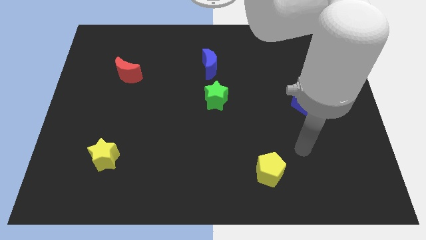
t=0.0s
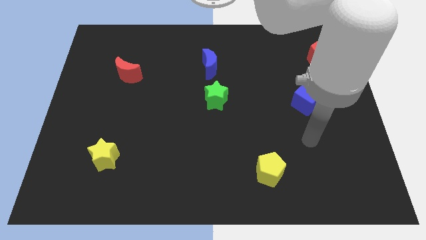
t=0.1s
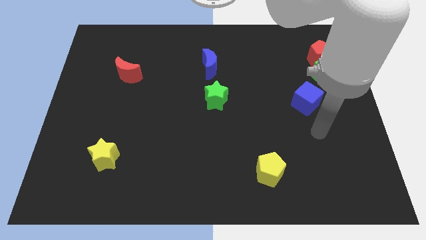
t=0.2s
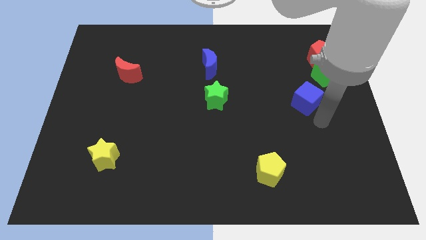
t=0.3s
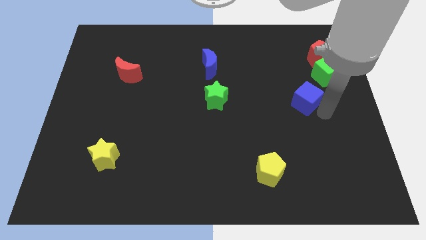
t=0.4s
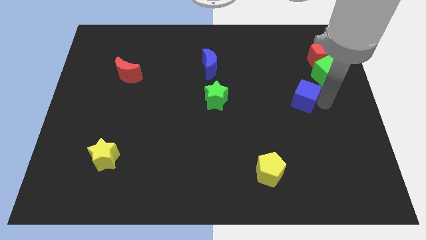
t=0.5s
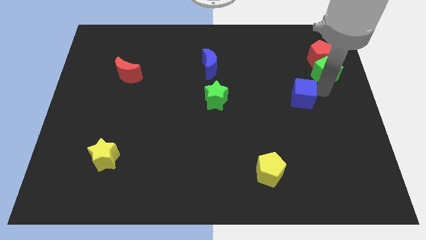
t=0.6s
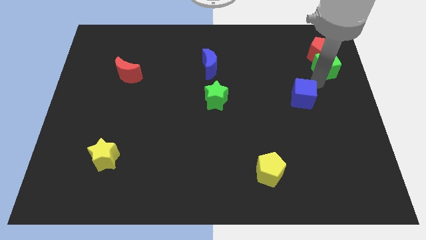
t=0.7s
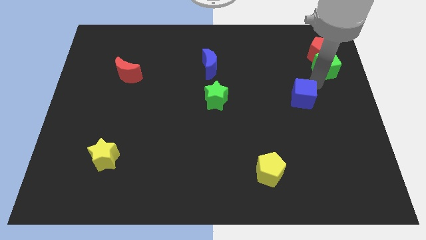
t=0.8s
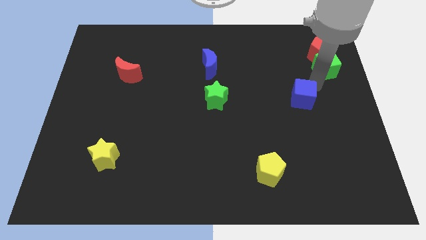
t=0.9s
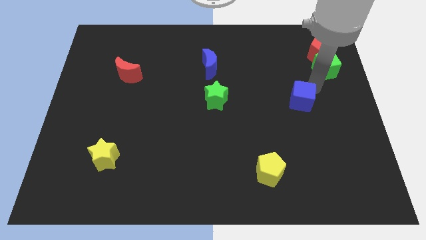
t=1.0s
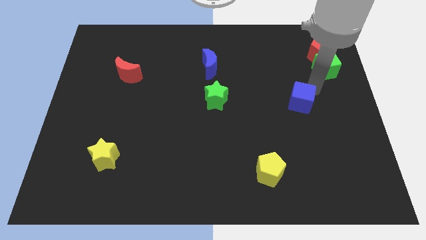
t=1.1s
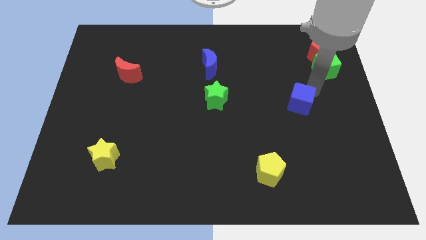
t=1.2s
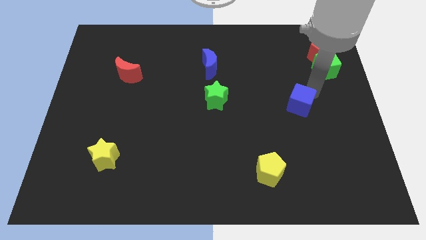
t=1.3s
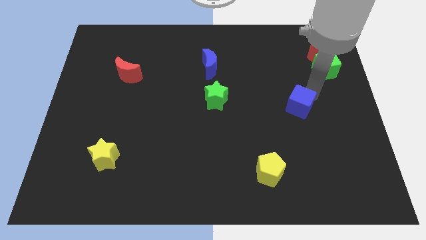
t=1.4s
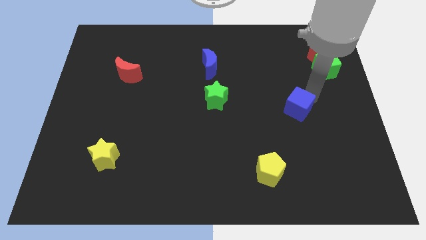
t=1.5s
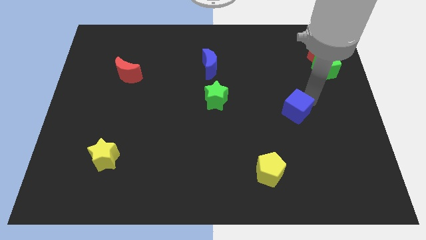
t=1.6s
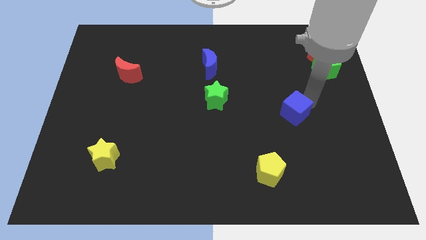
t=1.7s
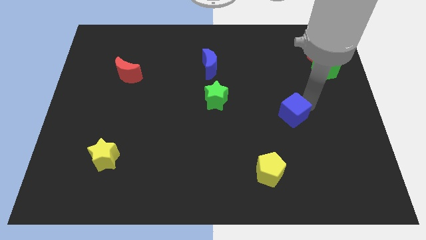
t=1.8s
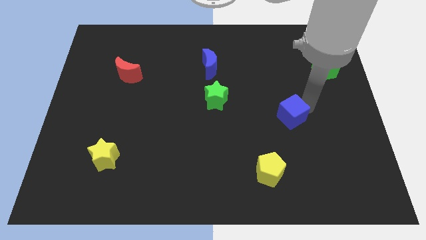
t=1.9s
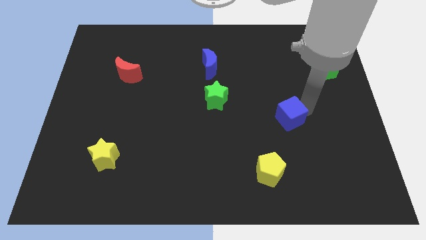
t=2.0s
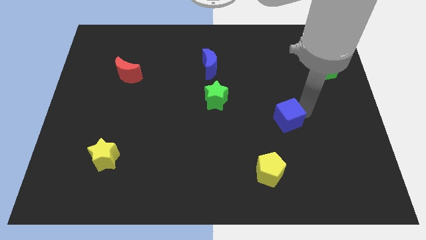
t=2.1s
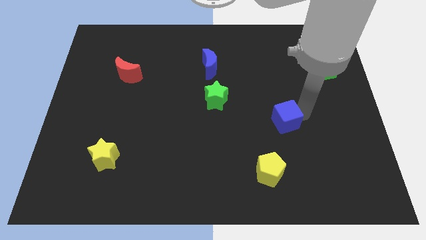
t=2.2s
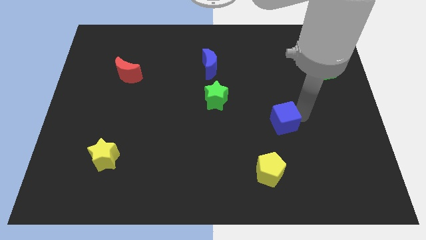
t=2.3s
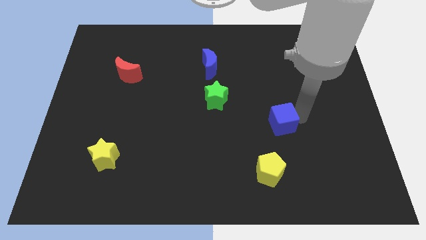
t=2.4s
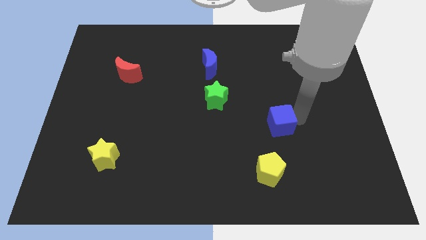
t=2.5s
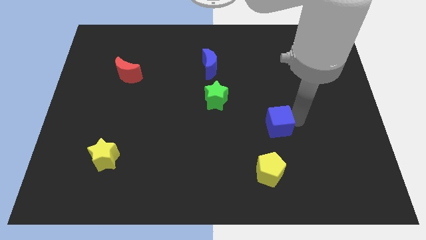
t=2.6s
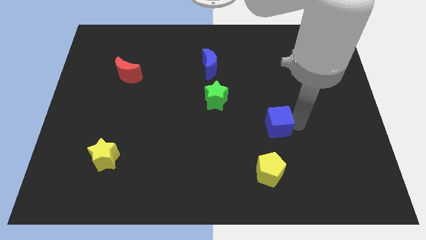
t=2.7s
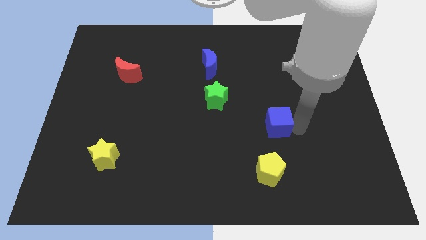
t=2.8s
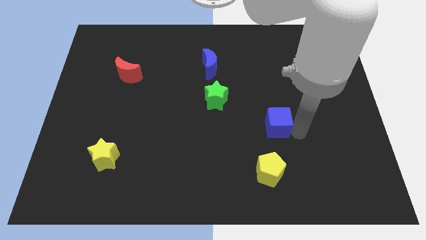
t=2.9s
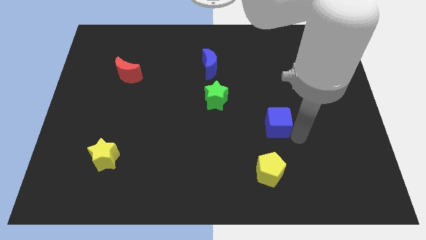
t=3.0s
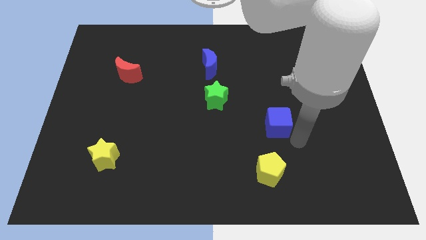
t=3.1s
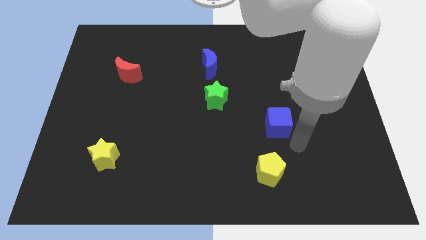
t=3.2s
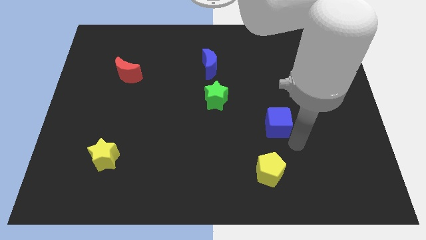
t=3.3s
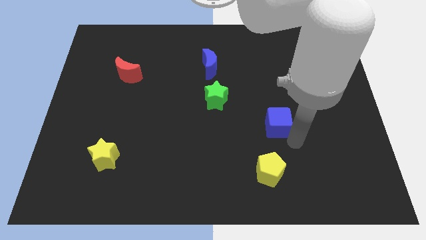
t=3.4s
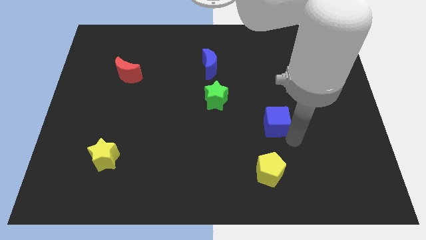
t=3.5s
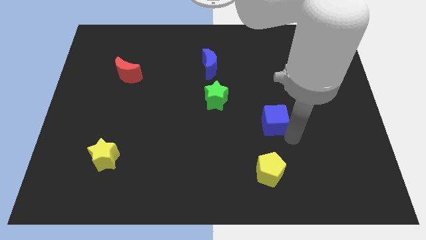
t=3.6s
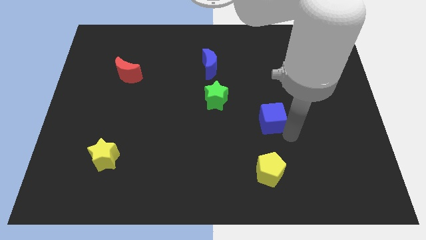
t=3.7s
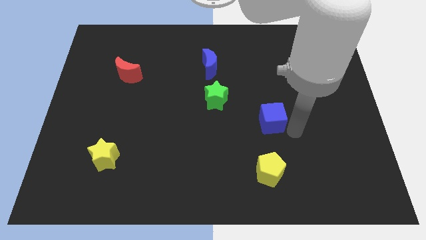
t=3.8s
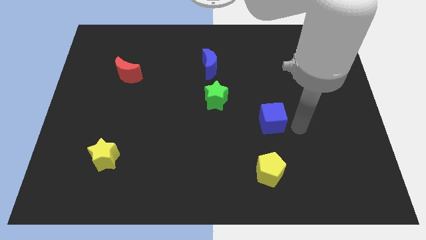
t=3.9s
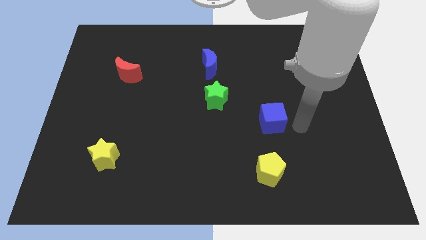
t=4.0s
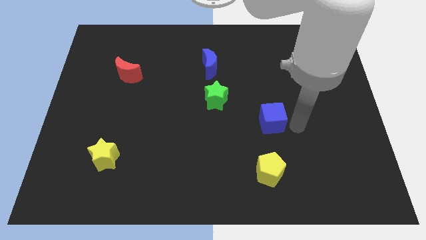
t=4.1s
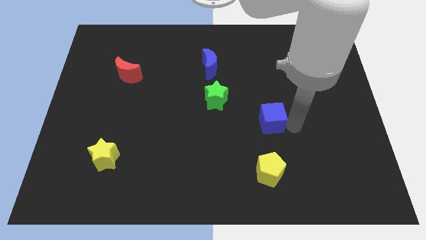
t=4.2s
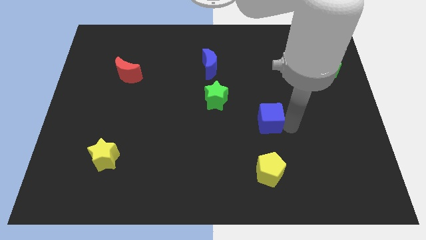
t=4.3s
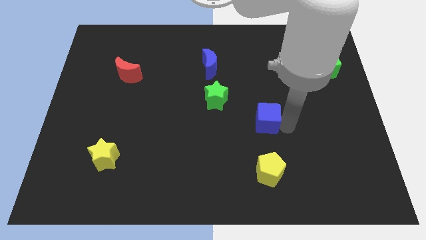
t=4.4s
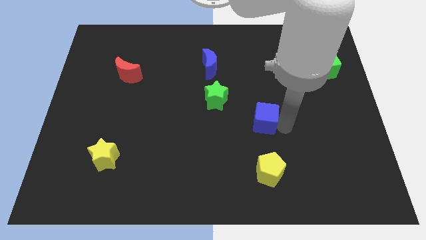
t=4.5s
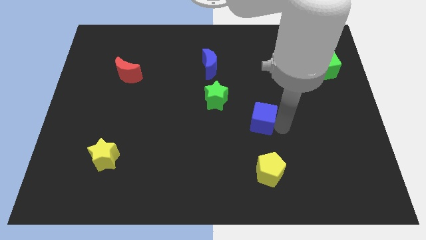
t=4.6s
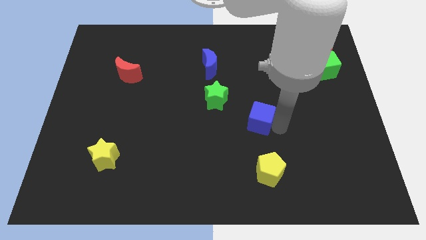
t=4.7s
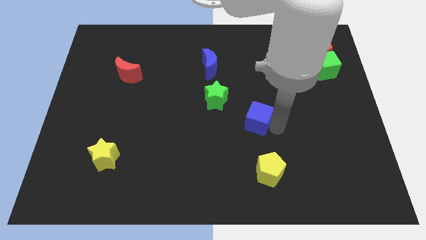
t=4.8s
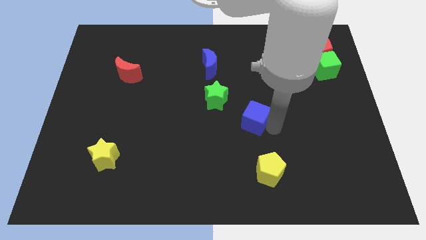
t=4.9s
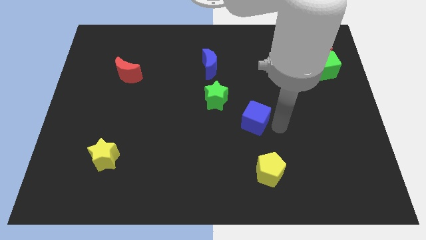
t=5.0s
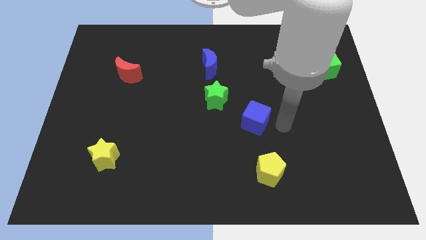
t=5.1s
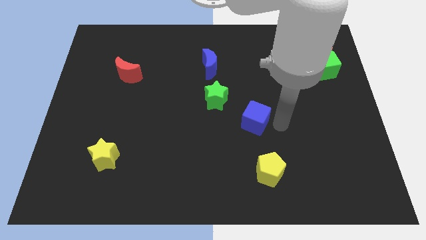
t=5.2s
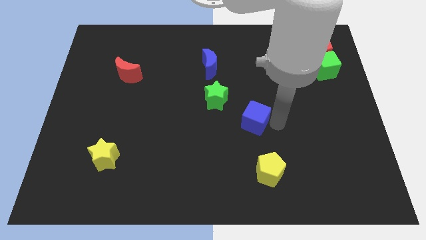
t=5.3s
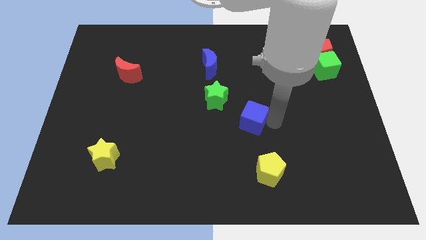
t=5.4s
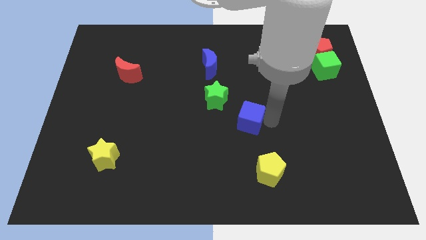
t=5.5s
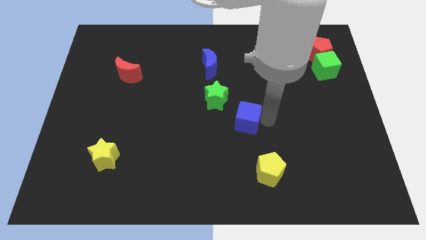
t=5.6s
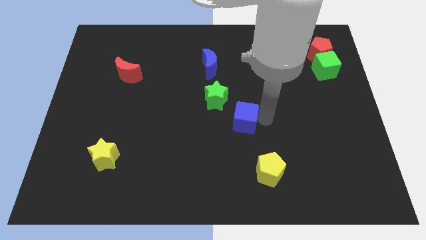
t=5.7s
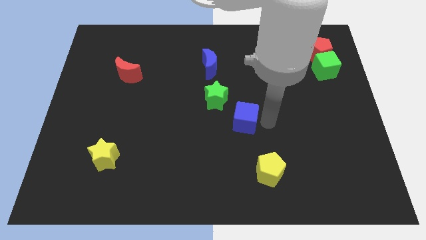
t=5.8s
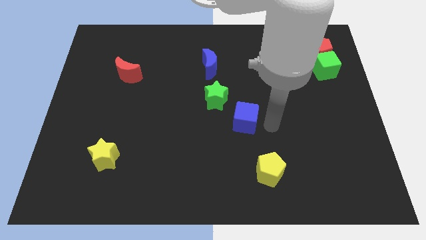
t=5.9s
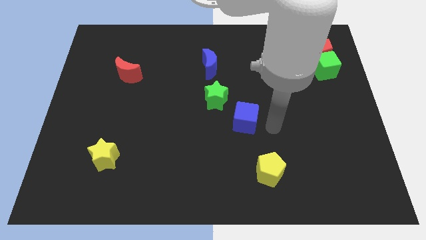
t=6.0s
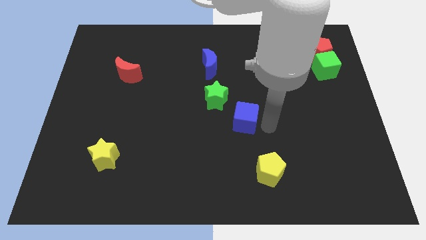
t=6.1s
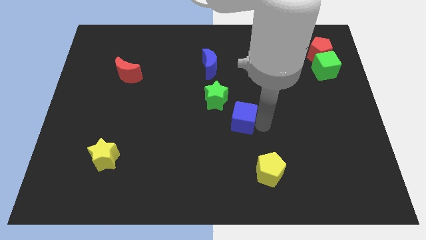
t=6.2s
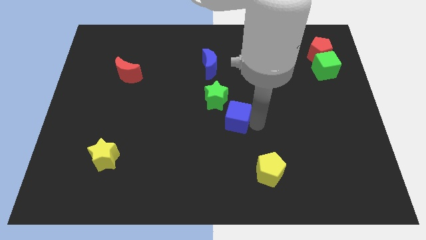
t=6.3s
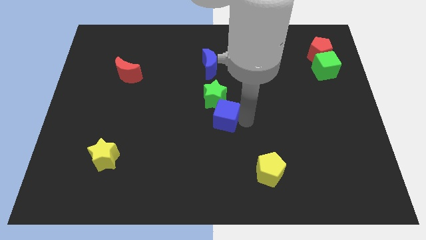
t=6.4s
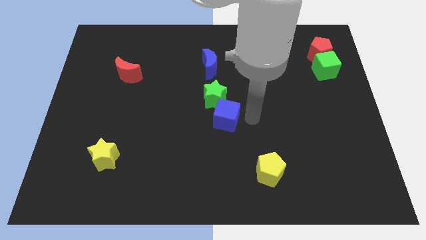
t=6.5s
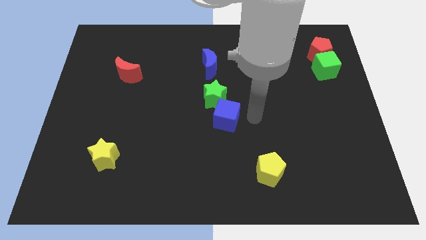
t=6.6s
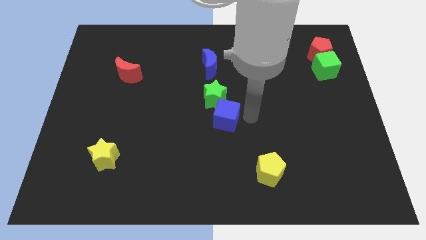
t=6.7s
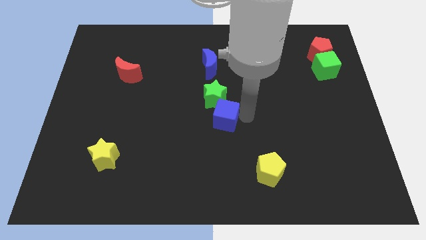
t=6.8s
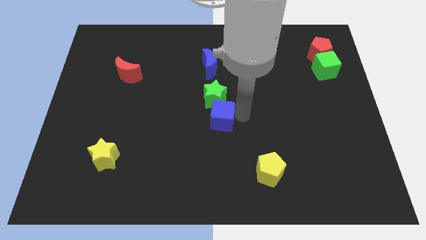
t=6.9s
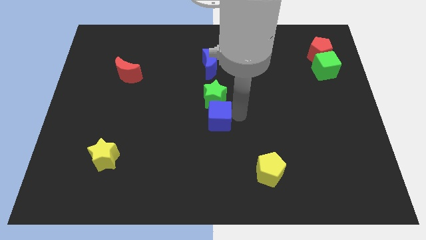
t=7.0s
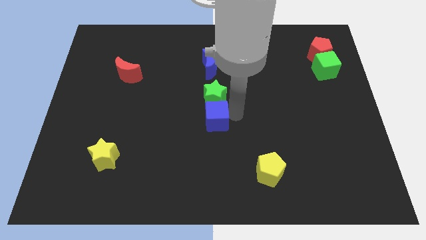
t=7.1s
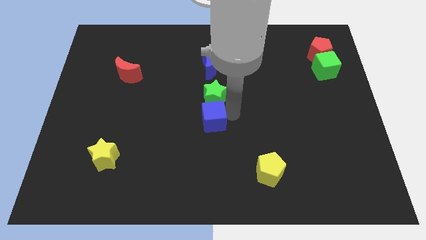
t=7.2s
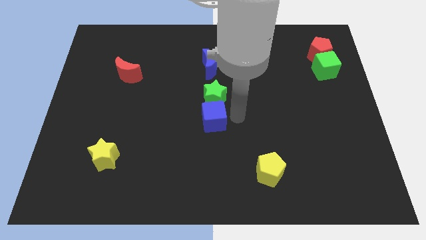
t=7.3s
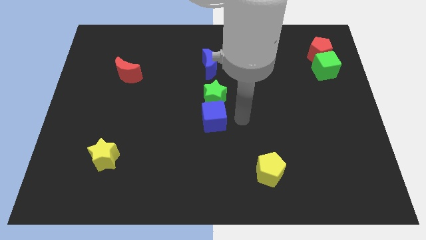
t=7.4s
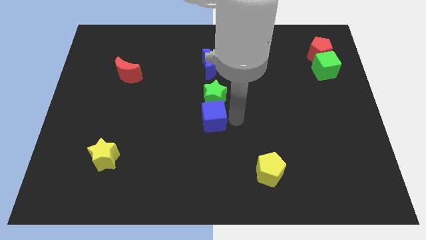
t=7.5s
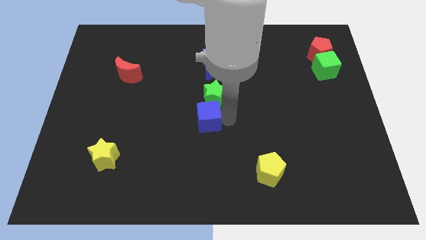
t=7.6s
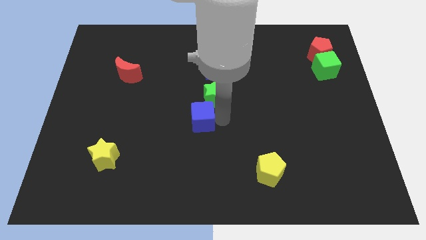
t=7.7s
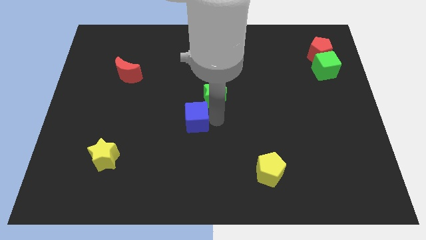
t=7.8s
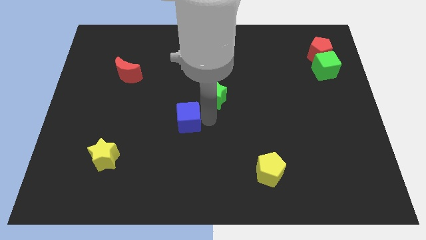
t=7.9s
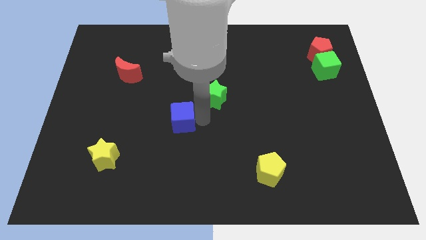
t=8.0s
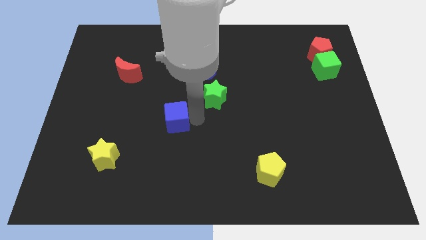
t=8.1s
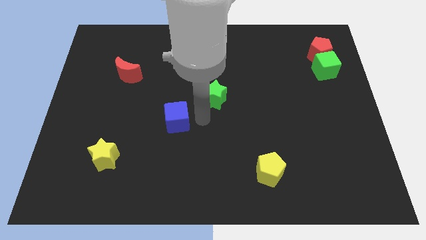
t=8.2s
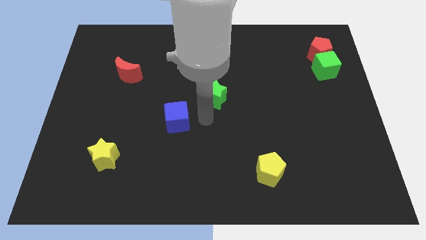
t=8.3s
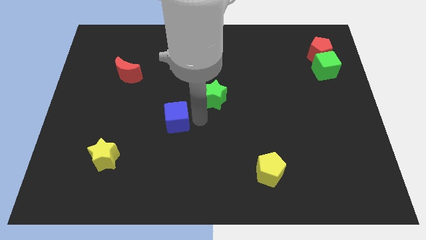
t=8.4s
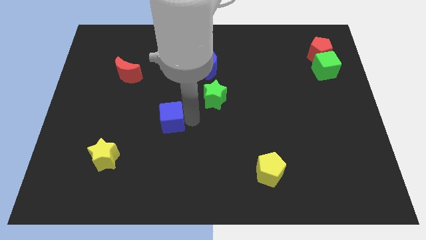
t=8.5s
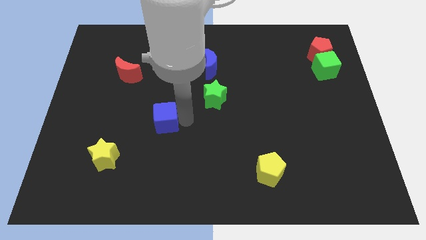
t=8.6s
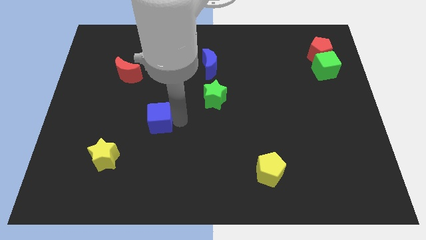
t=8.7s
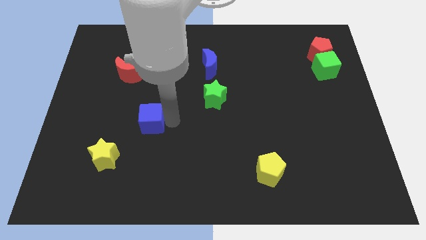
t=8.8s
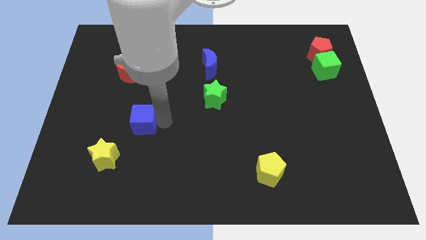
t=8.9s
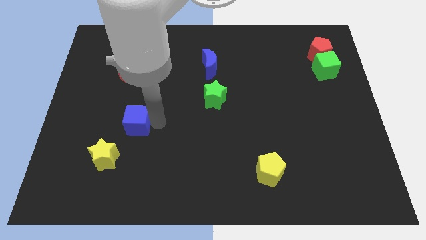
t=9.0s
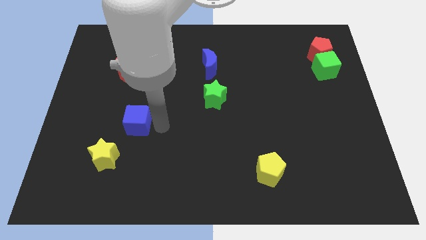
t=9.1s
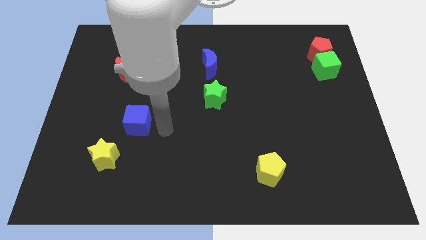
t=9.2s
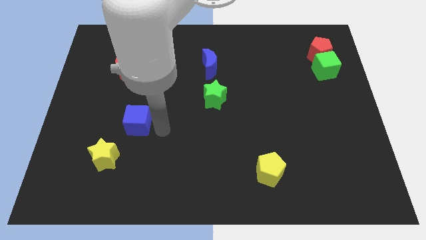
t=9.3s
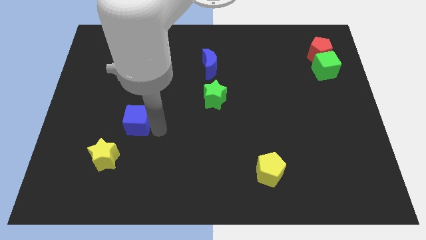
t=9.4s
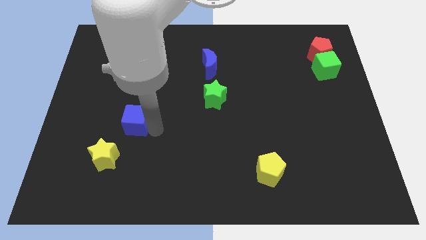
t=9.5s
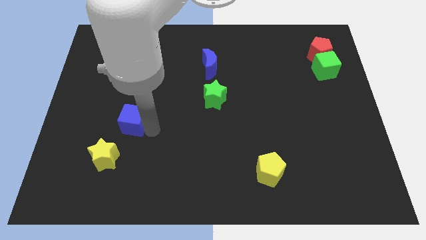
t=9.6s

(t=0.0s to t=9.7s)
move the blue cube to the top side of the yellow star
